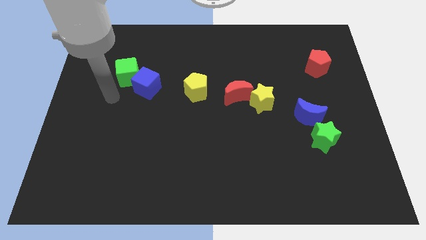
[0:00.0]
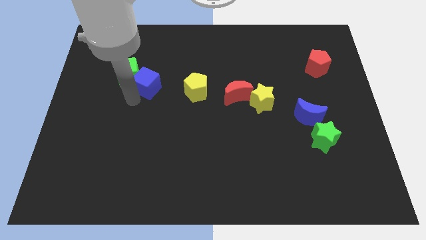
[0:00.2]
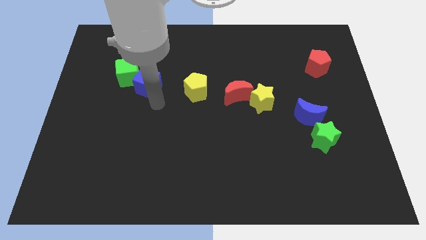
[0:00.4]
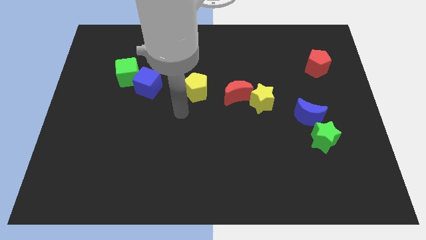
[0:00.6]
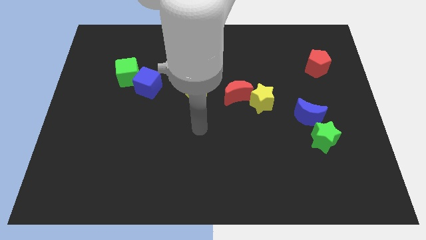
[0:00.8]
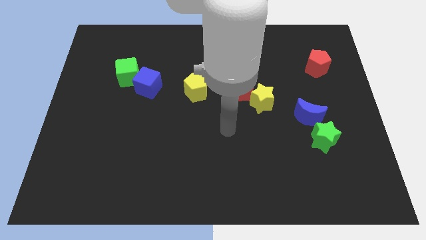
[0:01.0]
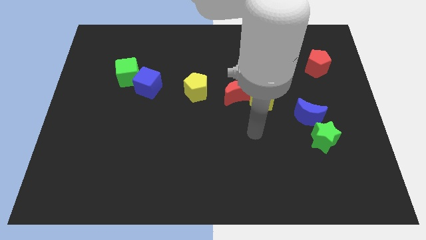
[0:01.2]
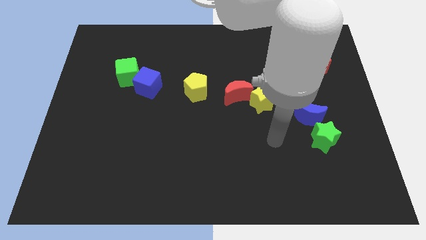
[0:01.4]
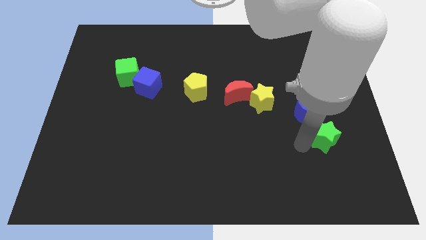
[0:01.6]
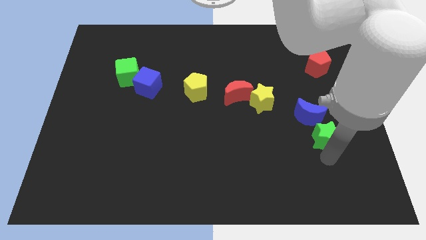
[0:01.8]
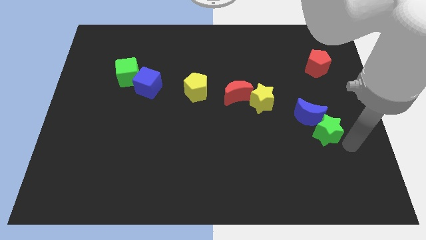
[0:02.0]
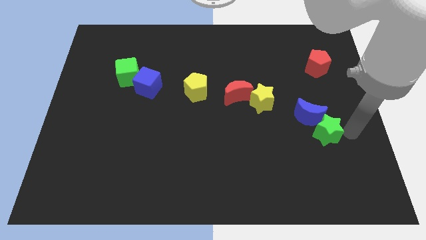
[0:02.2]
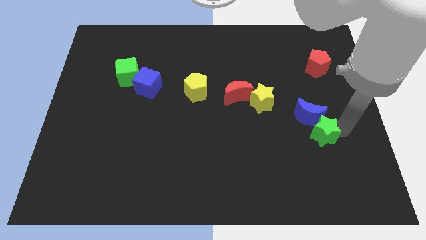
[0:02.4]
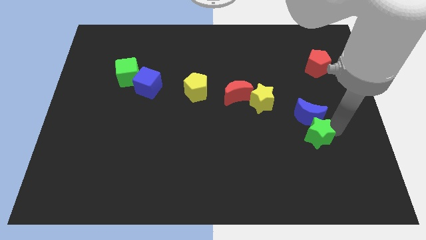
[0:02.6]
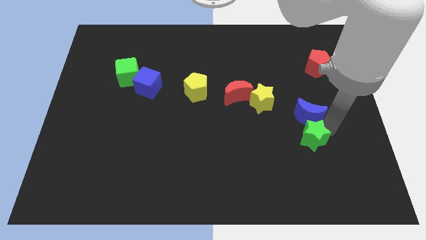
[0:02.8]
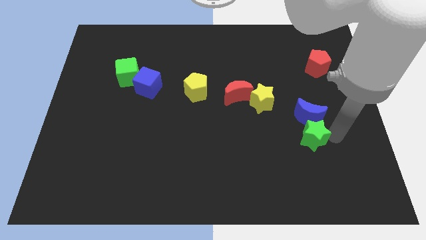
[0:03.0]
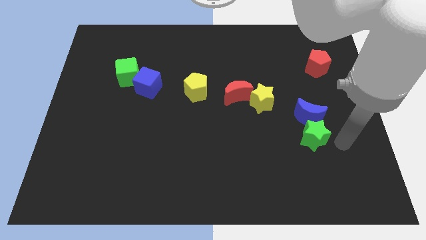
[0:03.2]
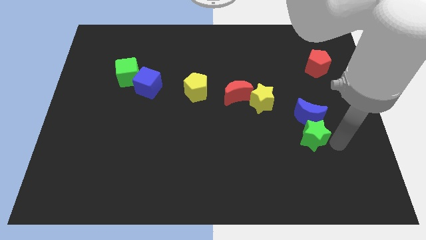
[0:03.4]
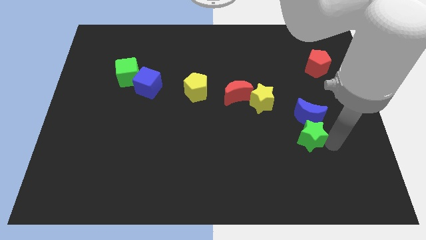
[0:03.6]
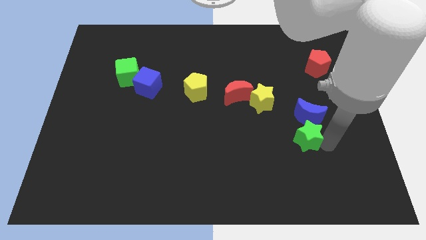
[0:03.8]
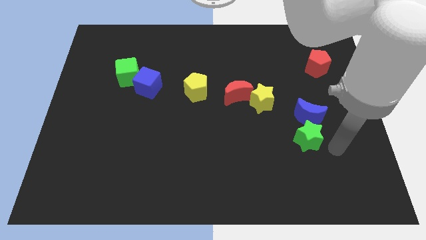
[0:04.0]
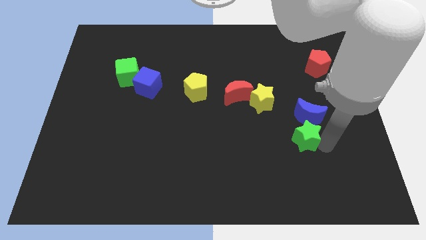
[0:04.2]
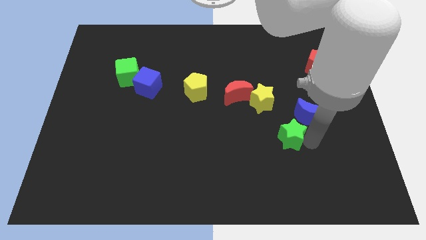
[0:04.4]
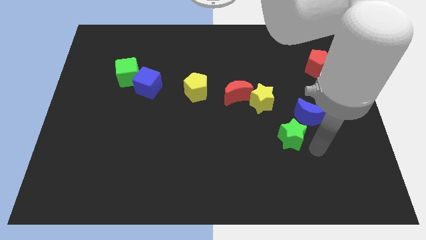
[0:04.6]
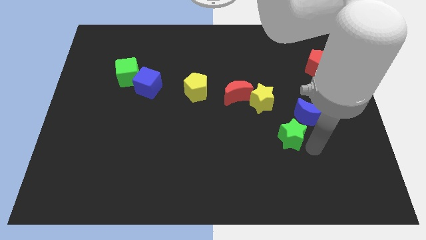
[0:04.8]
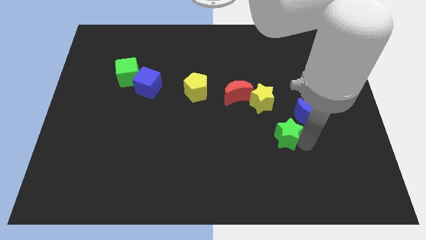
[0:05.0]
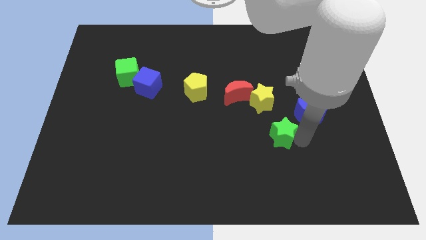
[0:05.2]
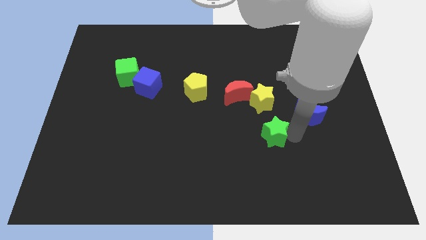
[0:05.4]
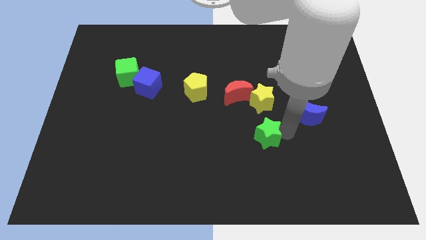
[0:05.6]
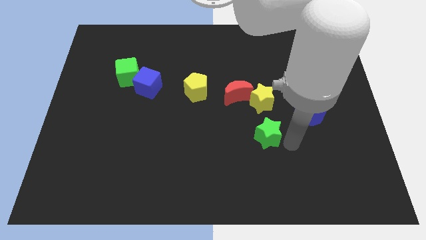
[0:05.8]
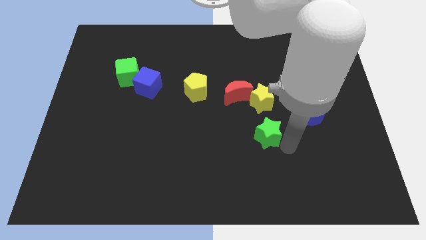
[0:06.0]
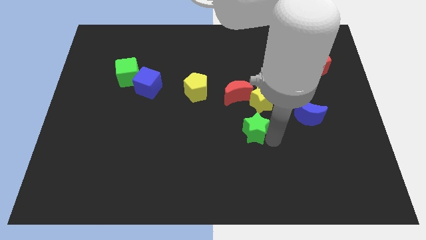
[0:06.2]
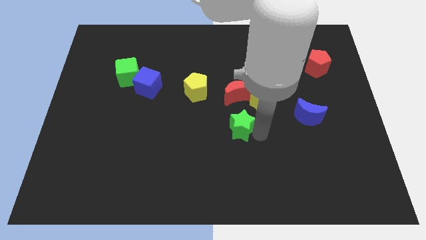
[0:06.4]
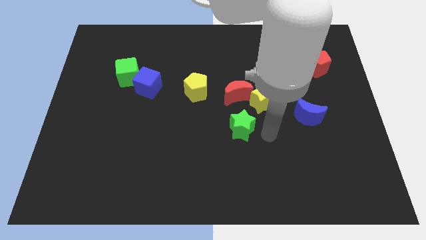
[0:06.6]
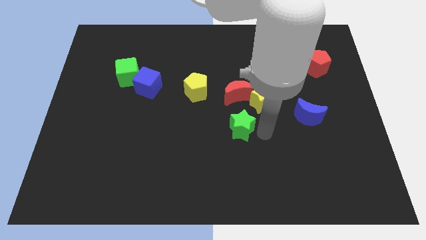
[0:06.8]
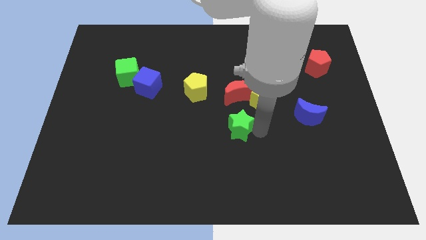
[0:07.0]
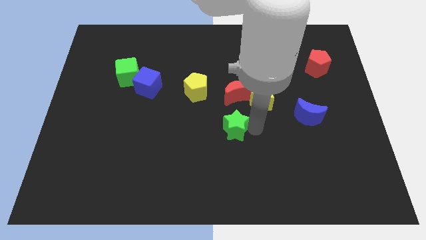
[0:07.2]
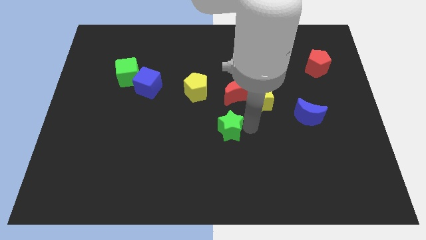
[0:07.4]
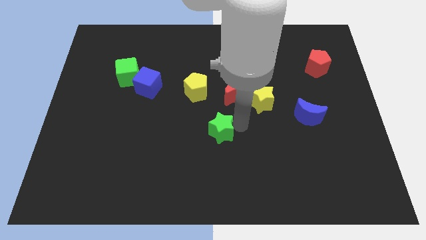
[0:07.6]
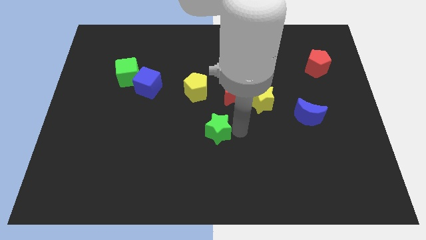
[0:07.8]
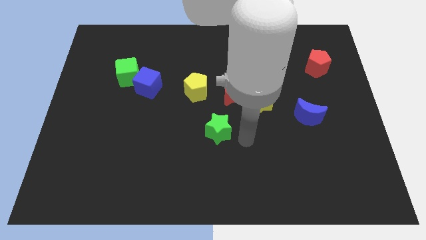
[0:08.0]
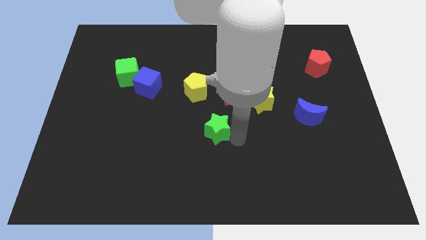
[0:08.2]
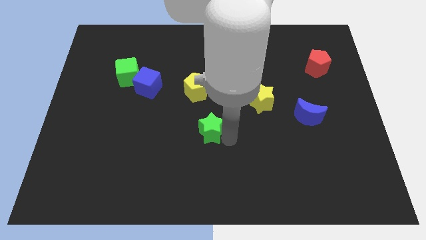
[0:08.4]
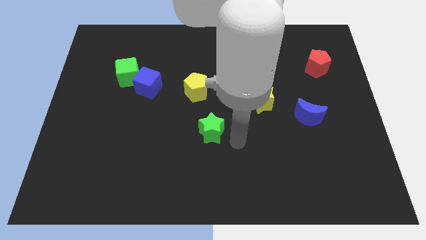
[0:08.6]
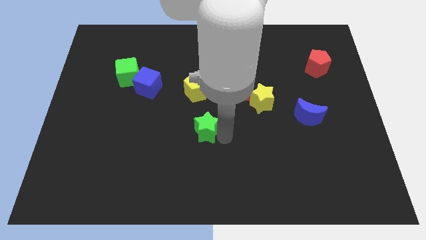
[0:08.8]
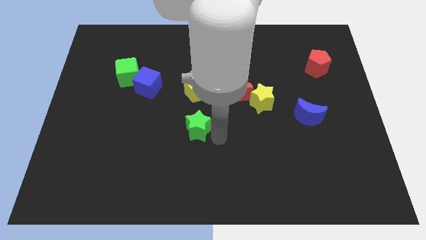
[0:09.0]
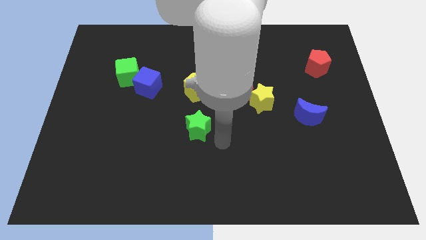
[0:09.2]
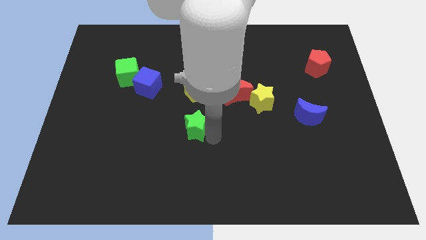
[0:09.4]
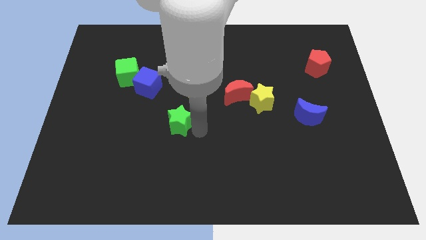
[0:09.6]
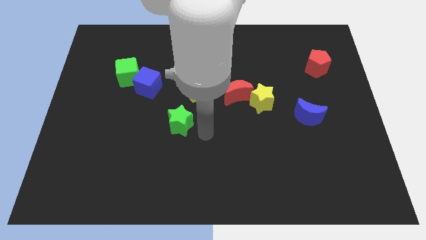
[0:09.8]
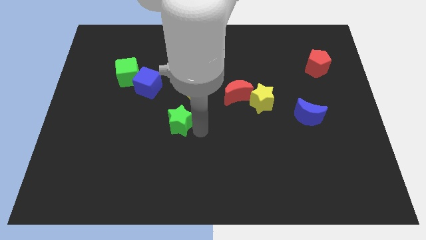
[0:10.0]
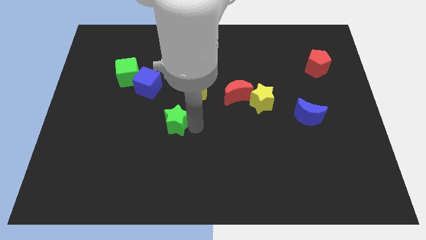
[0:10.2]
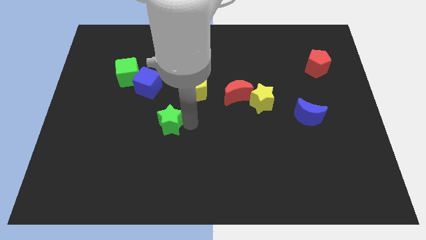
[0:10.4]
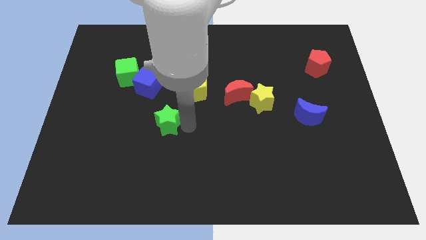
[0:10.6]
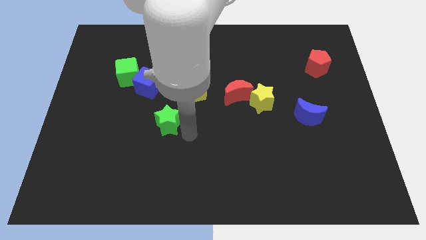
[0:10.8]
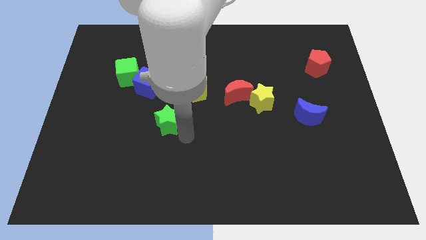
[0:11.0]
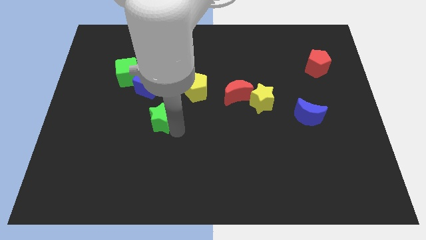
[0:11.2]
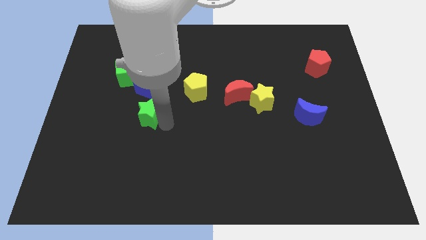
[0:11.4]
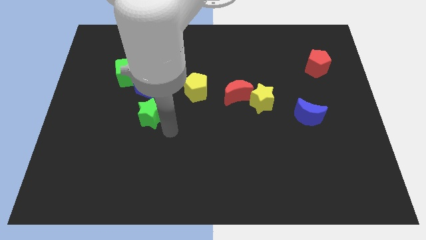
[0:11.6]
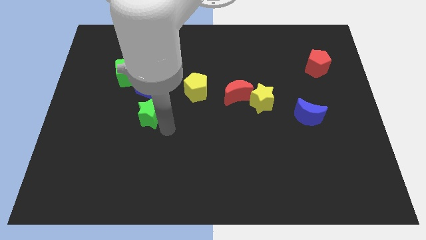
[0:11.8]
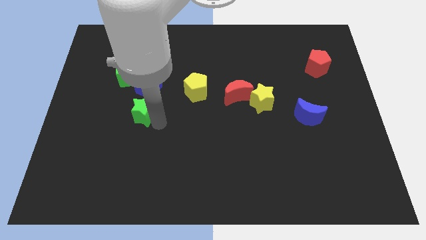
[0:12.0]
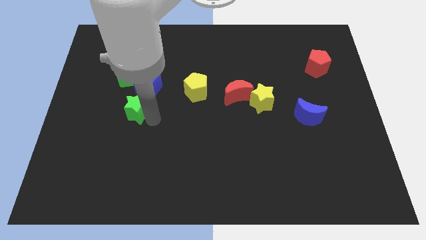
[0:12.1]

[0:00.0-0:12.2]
push the green star to the bottom left of the blue cube

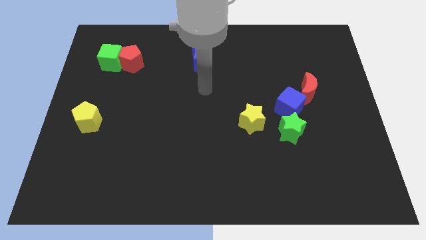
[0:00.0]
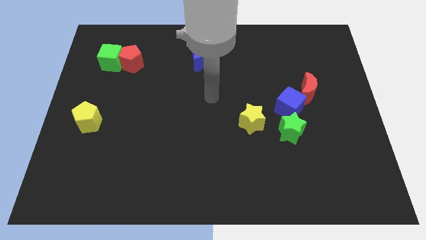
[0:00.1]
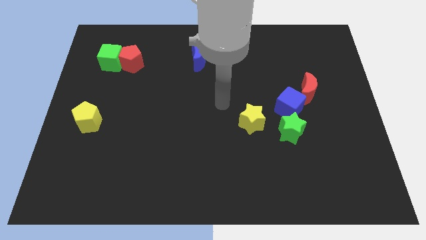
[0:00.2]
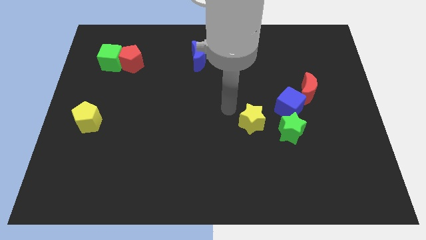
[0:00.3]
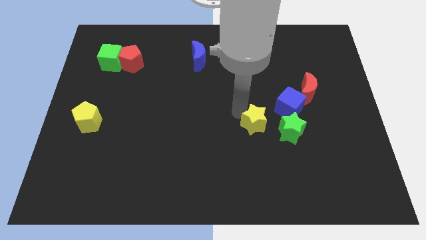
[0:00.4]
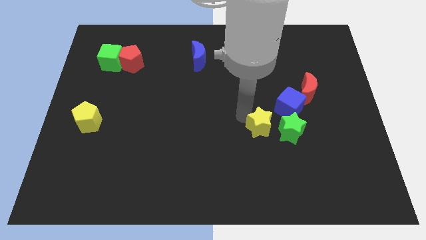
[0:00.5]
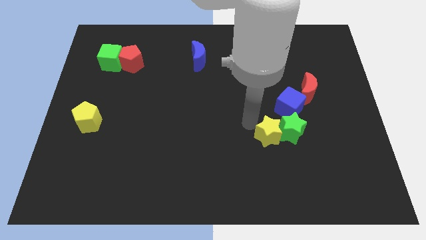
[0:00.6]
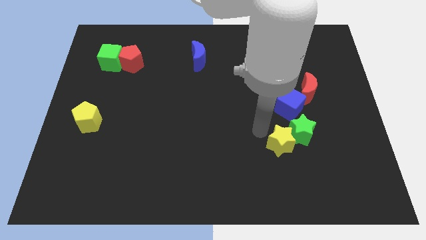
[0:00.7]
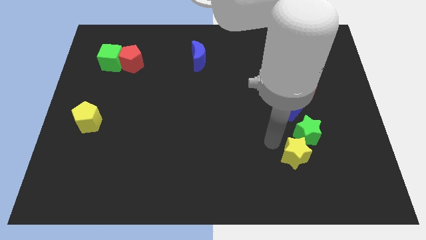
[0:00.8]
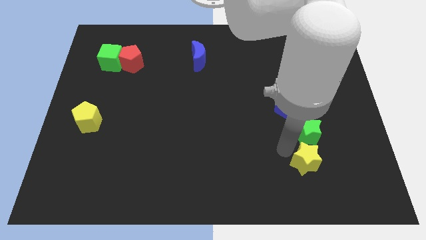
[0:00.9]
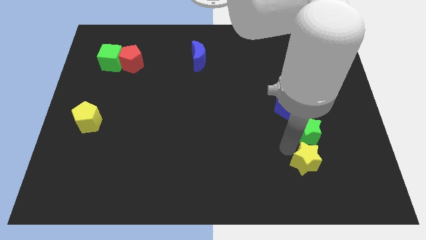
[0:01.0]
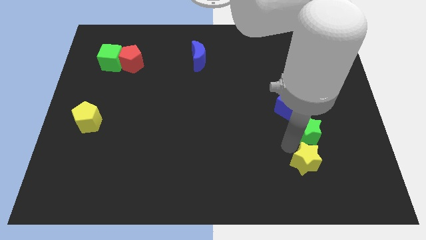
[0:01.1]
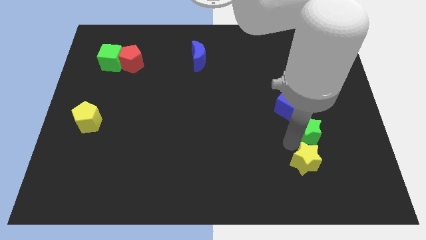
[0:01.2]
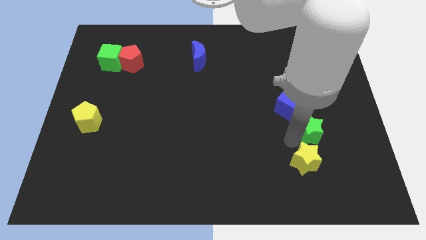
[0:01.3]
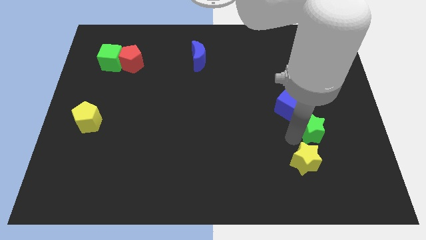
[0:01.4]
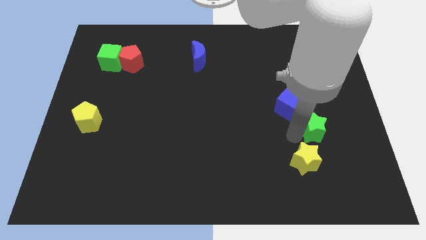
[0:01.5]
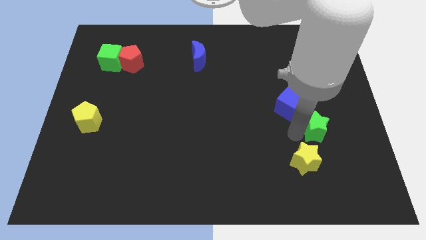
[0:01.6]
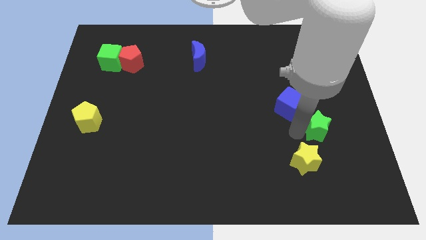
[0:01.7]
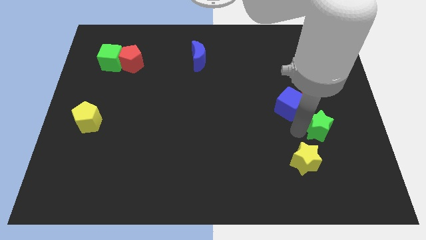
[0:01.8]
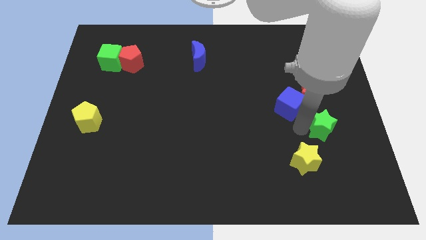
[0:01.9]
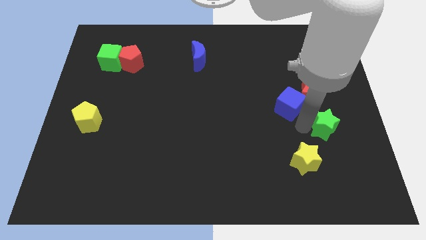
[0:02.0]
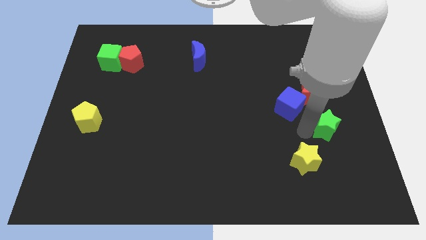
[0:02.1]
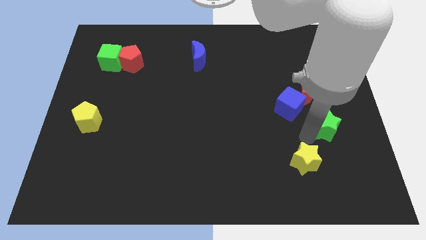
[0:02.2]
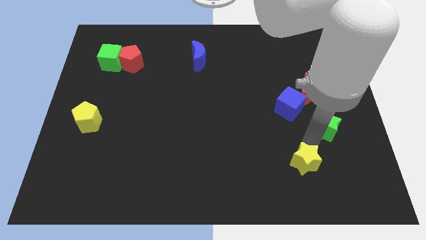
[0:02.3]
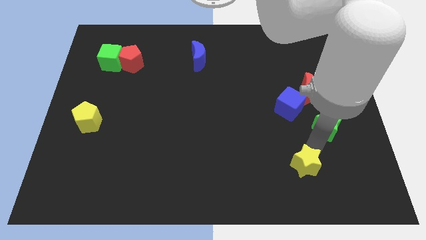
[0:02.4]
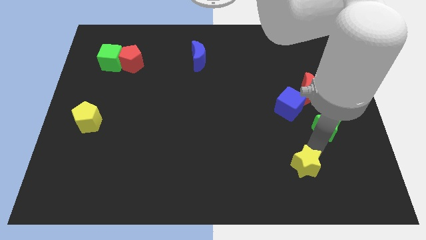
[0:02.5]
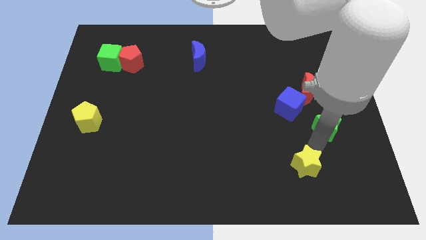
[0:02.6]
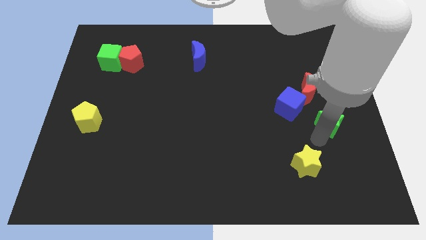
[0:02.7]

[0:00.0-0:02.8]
push the green star right of the blue cube
